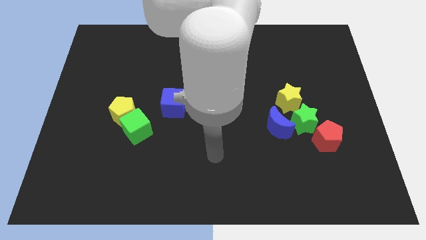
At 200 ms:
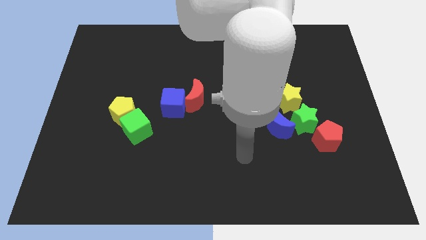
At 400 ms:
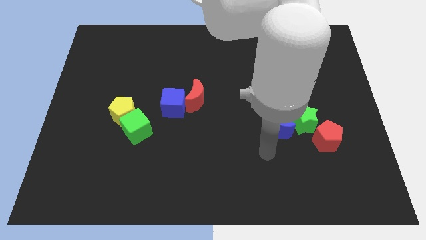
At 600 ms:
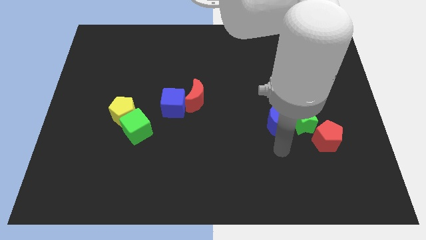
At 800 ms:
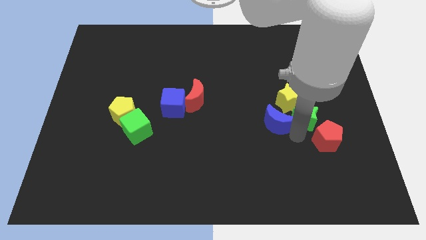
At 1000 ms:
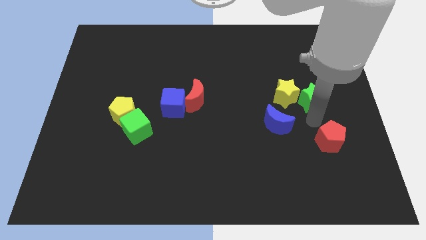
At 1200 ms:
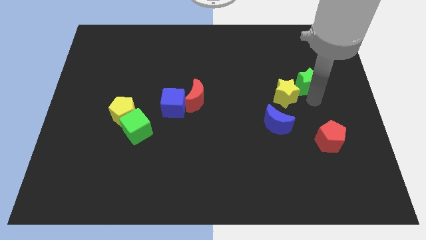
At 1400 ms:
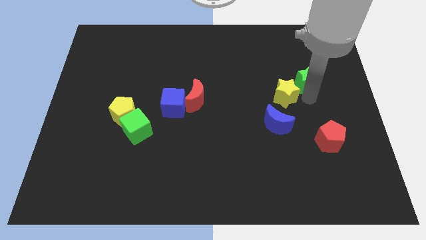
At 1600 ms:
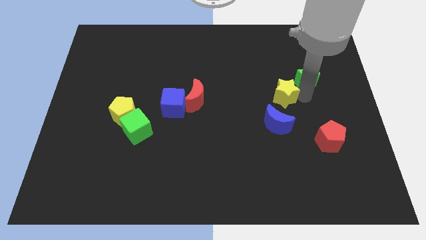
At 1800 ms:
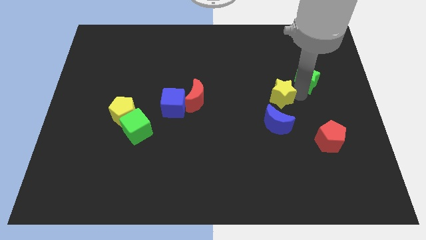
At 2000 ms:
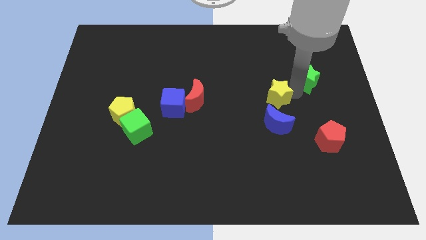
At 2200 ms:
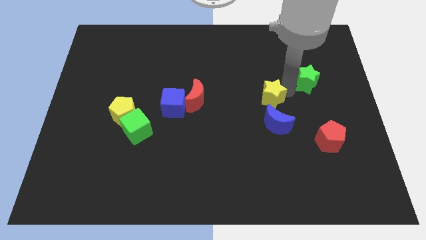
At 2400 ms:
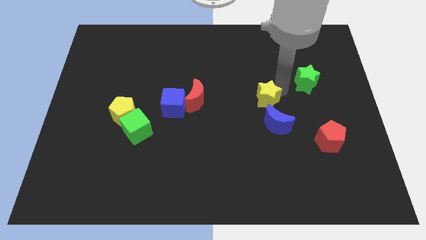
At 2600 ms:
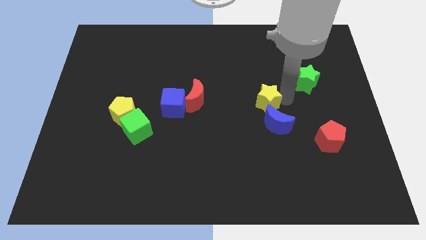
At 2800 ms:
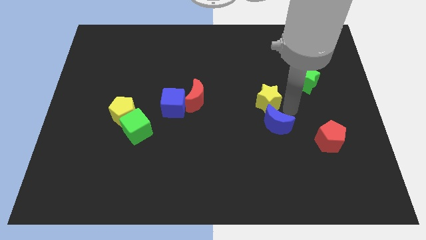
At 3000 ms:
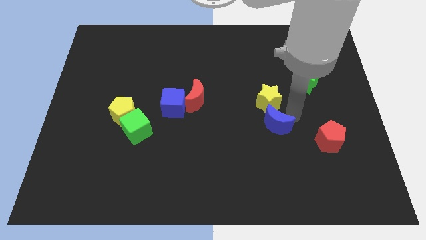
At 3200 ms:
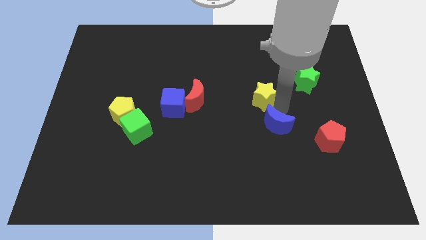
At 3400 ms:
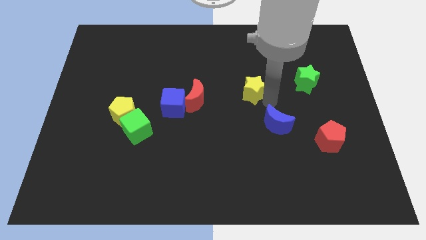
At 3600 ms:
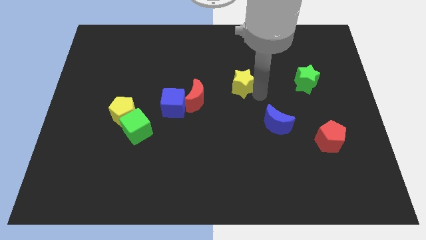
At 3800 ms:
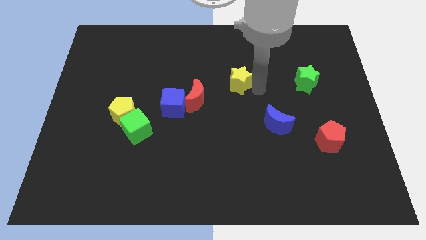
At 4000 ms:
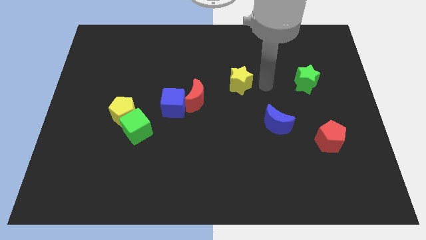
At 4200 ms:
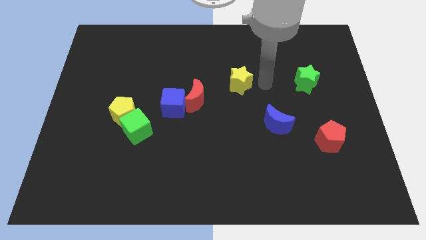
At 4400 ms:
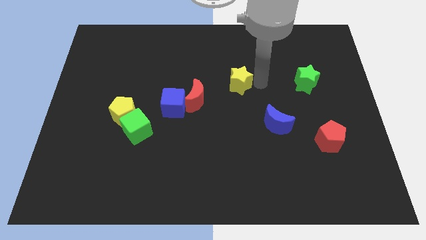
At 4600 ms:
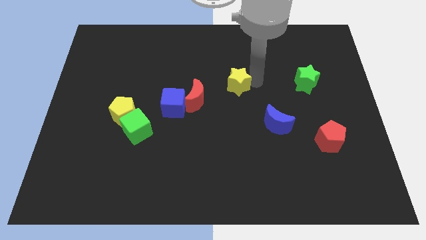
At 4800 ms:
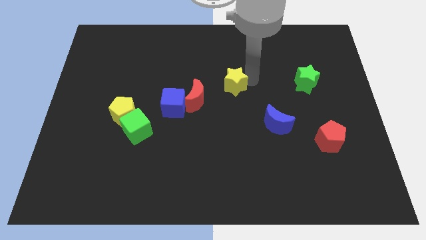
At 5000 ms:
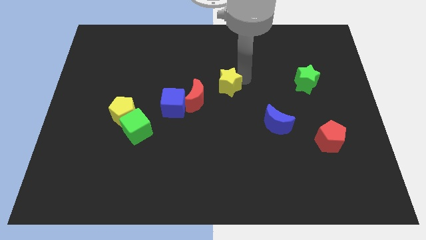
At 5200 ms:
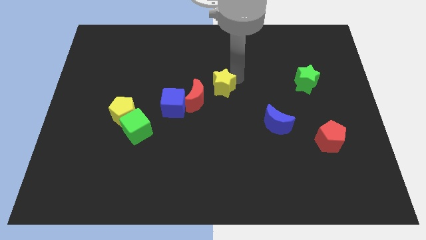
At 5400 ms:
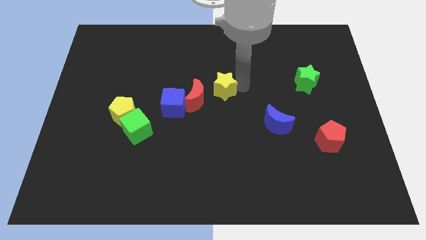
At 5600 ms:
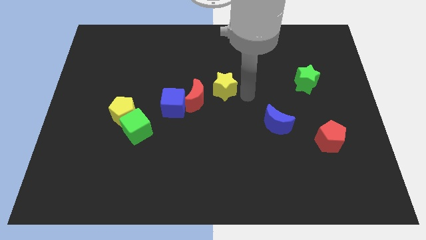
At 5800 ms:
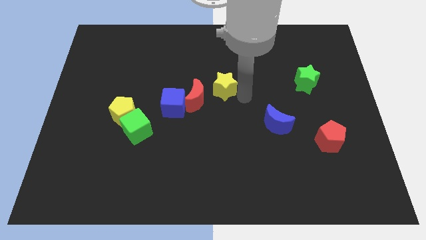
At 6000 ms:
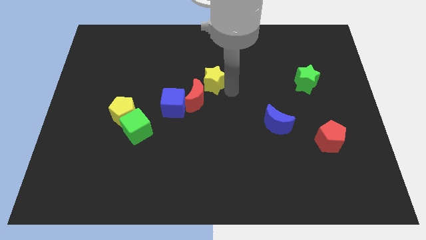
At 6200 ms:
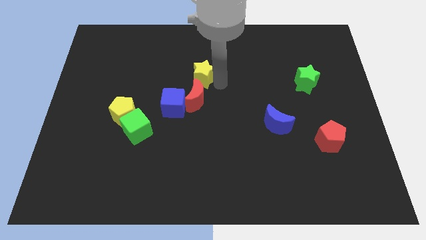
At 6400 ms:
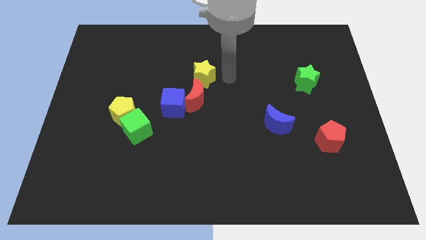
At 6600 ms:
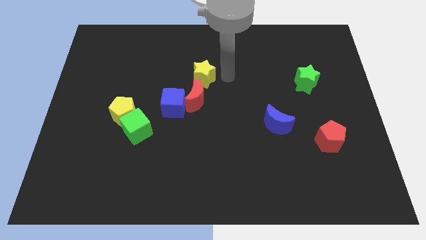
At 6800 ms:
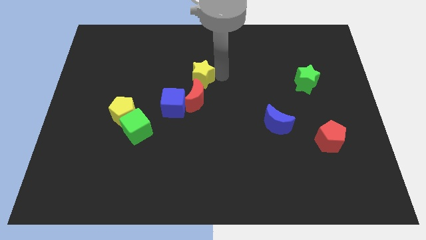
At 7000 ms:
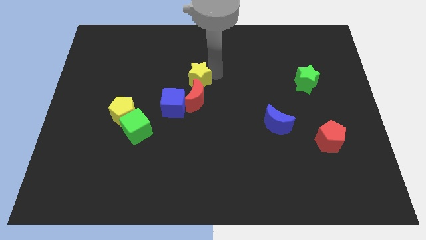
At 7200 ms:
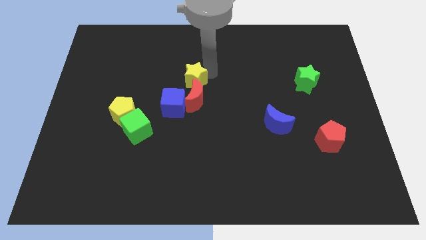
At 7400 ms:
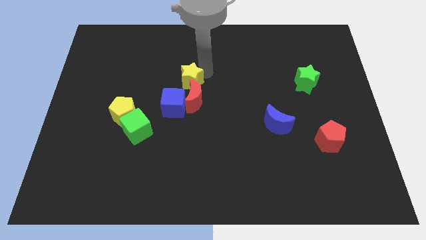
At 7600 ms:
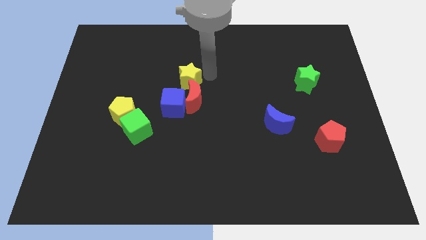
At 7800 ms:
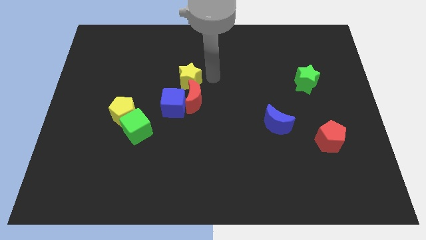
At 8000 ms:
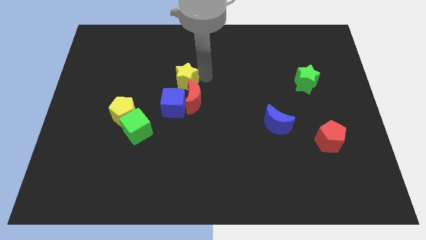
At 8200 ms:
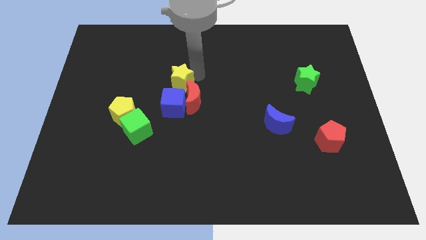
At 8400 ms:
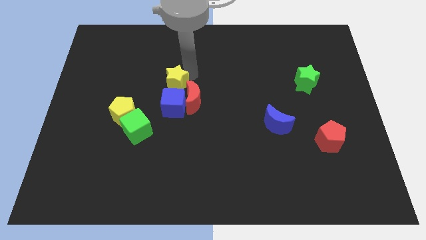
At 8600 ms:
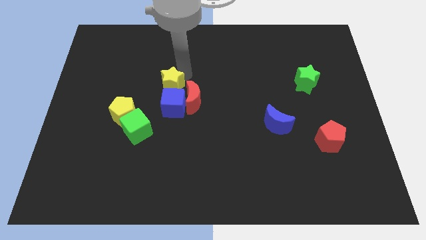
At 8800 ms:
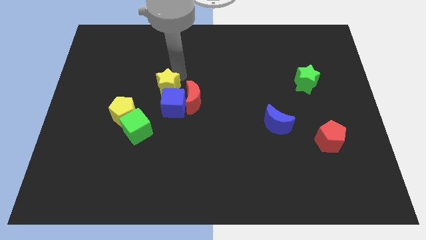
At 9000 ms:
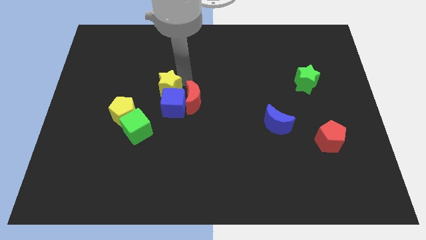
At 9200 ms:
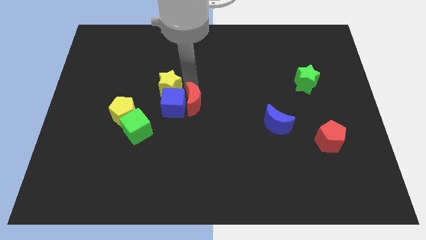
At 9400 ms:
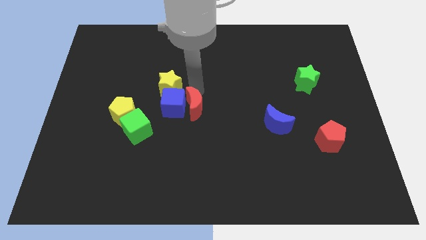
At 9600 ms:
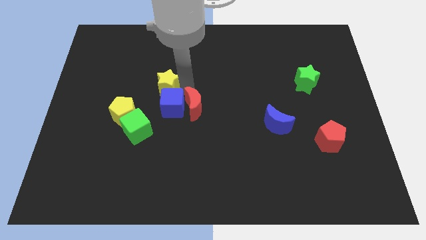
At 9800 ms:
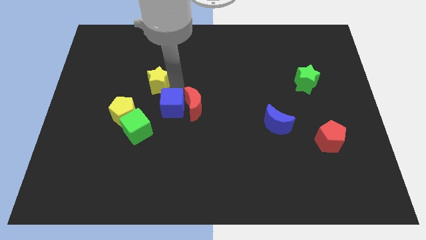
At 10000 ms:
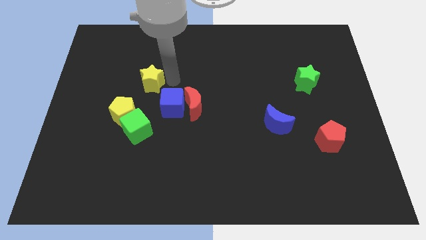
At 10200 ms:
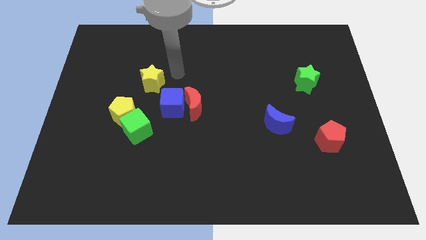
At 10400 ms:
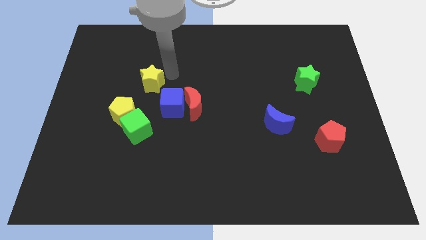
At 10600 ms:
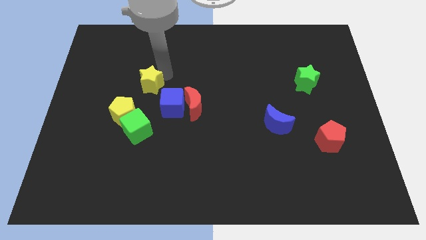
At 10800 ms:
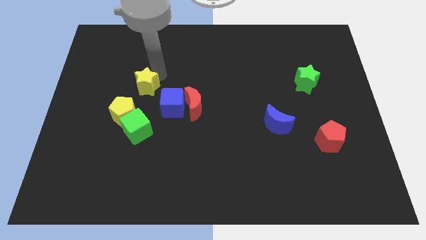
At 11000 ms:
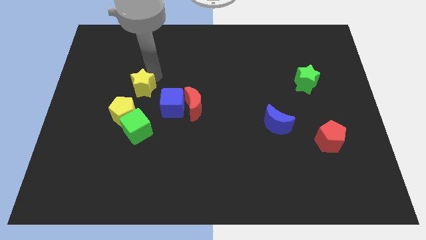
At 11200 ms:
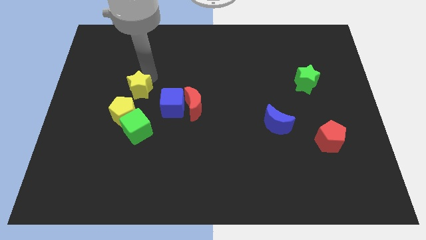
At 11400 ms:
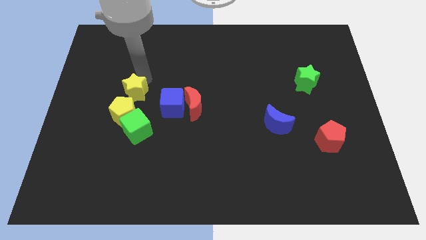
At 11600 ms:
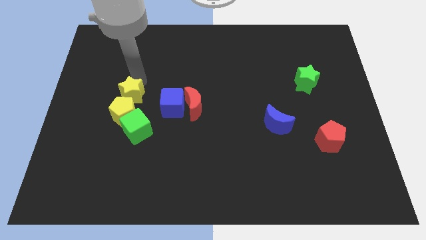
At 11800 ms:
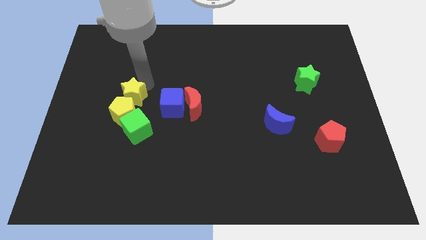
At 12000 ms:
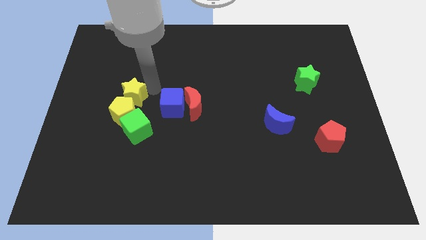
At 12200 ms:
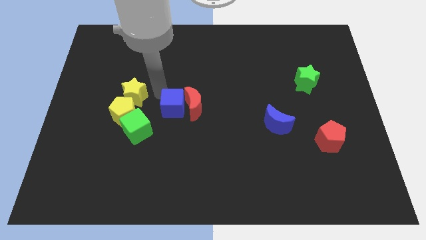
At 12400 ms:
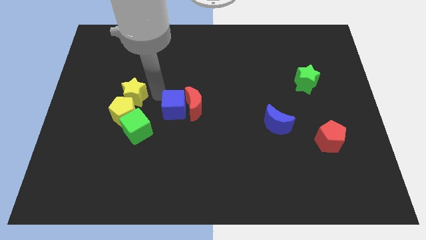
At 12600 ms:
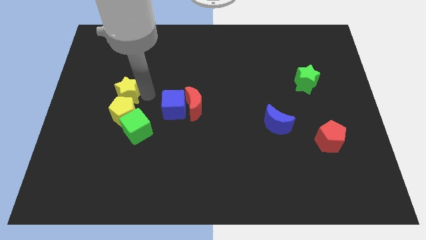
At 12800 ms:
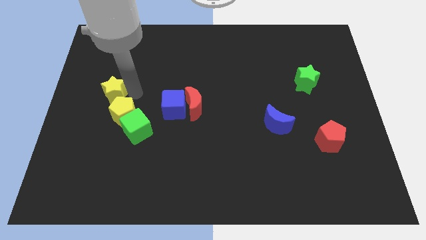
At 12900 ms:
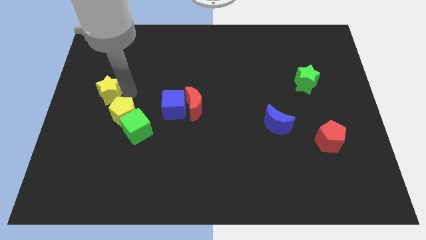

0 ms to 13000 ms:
push the yellow star to the left side
